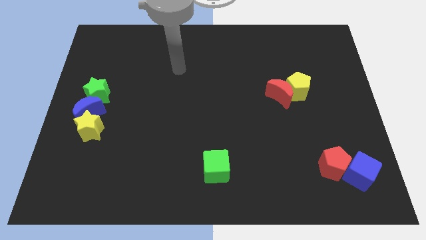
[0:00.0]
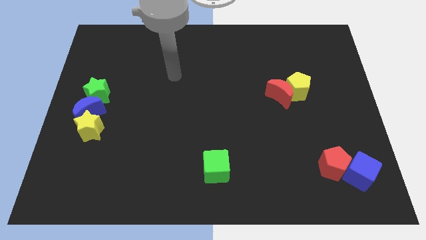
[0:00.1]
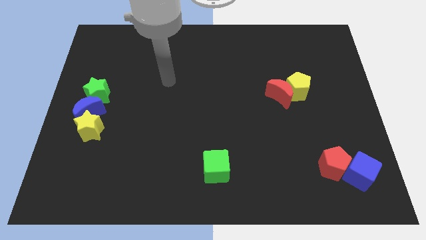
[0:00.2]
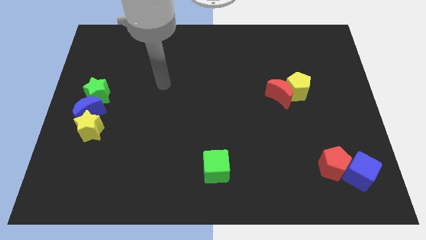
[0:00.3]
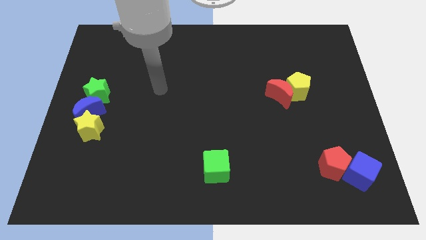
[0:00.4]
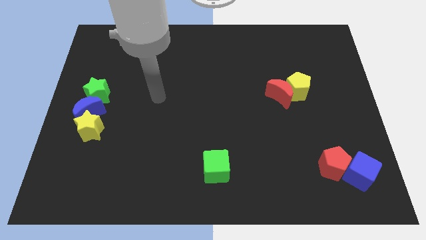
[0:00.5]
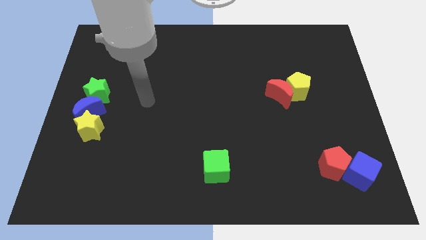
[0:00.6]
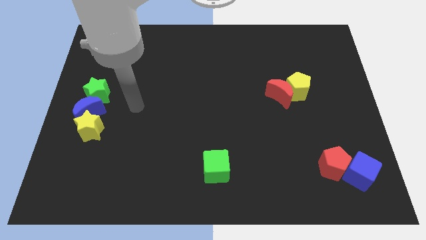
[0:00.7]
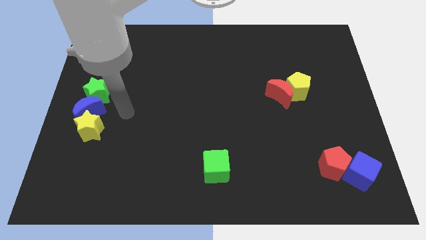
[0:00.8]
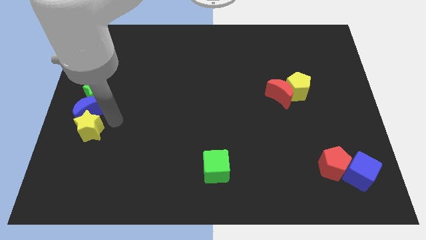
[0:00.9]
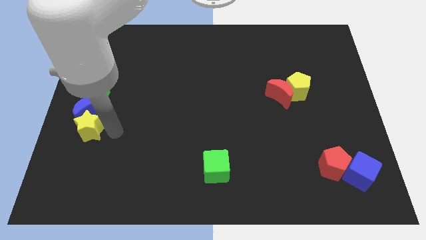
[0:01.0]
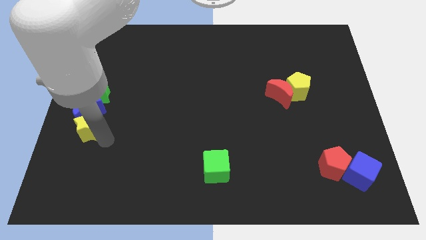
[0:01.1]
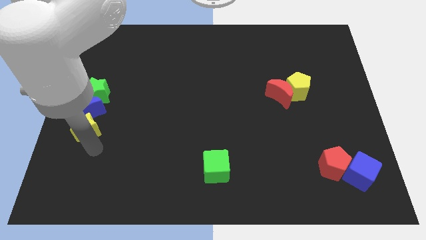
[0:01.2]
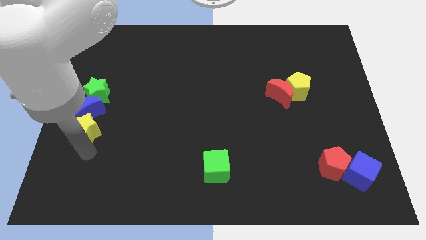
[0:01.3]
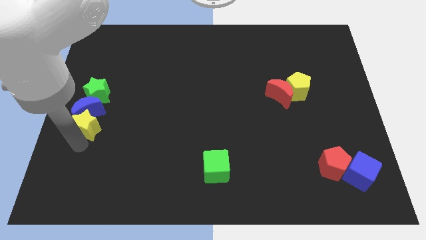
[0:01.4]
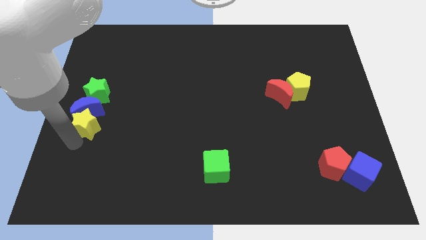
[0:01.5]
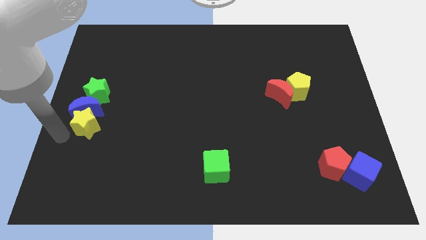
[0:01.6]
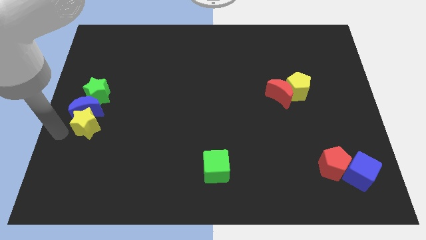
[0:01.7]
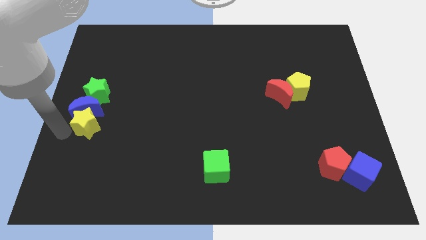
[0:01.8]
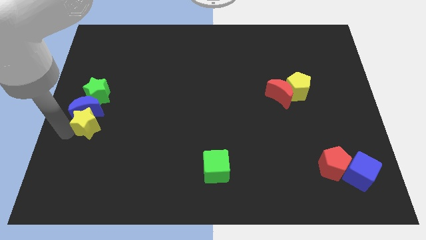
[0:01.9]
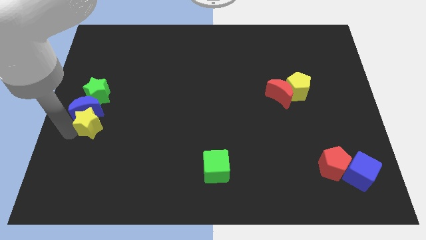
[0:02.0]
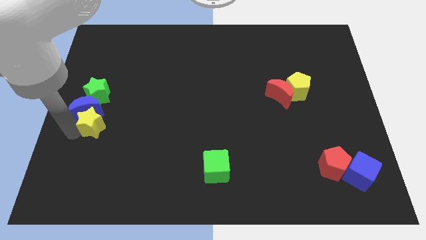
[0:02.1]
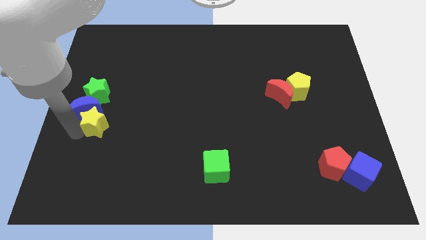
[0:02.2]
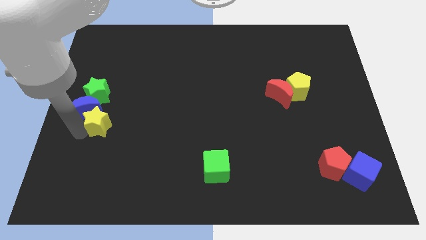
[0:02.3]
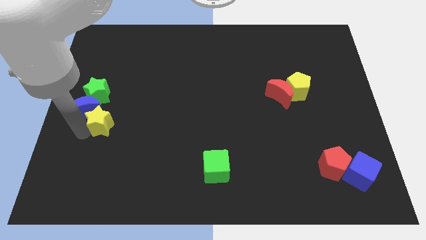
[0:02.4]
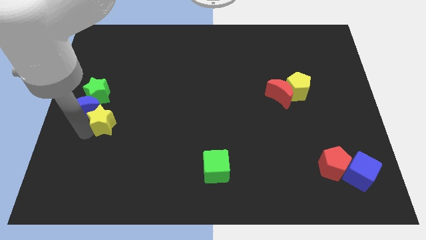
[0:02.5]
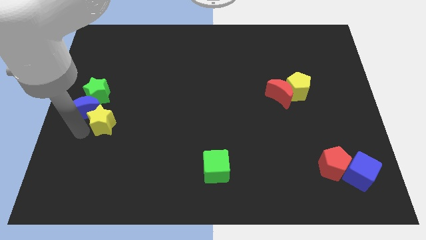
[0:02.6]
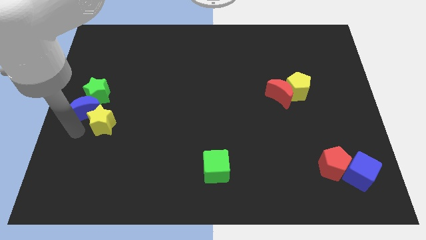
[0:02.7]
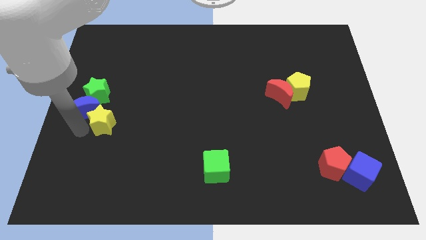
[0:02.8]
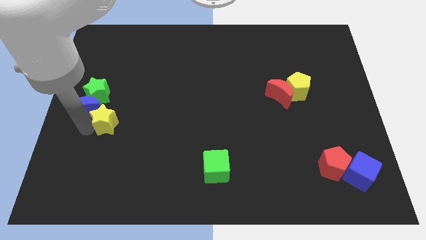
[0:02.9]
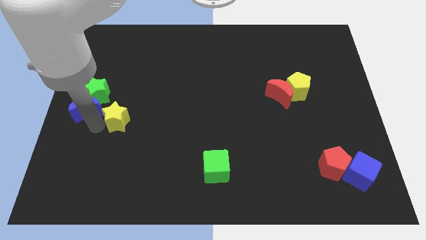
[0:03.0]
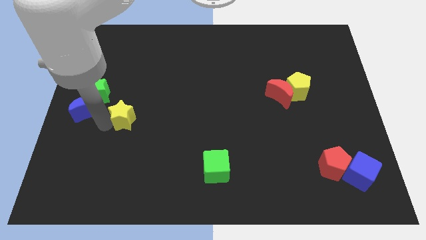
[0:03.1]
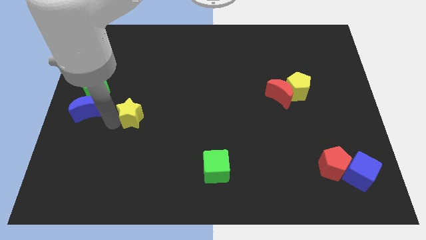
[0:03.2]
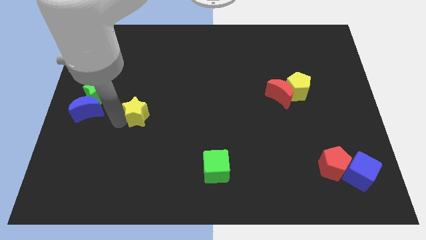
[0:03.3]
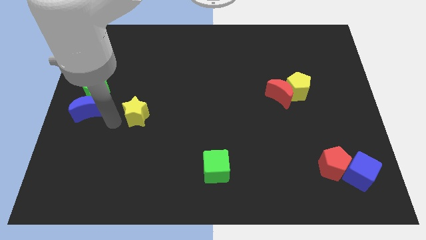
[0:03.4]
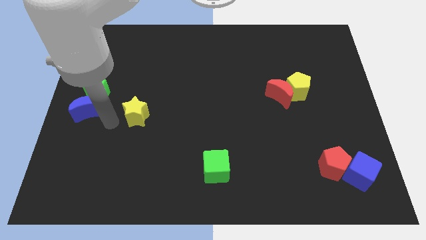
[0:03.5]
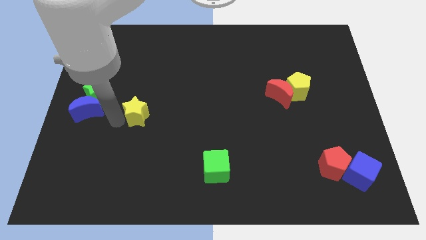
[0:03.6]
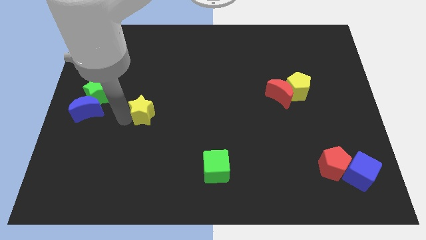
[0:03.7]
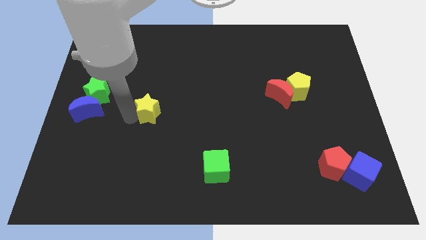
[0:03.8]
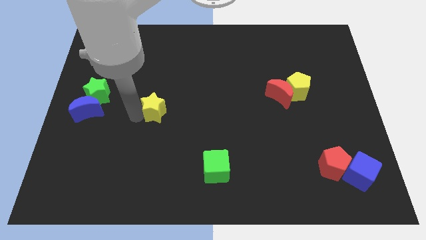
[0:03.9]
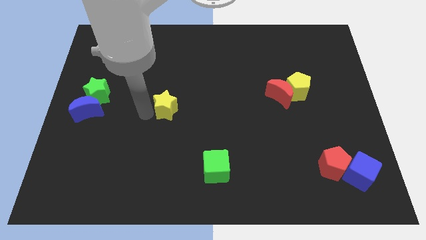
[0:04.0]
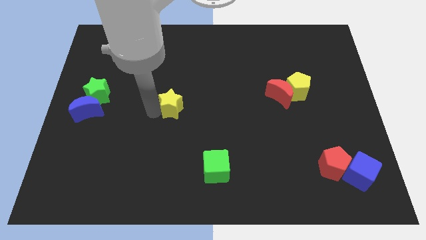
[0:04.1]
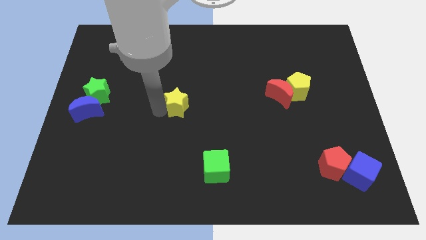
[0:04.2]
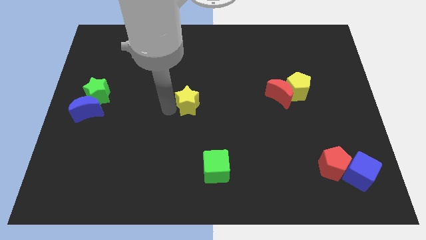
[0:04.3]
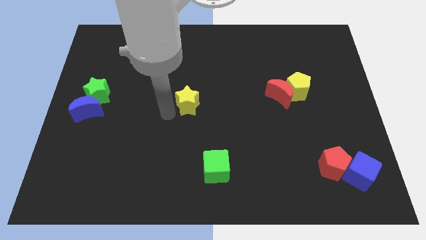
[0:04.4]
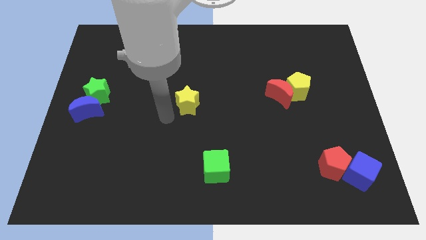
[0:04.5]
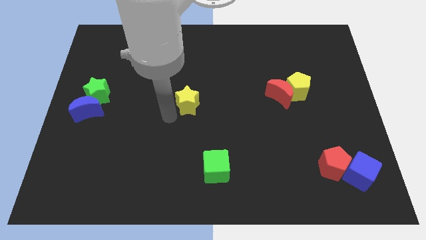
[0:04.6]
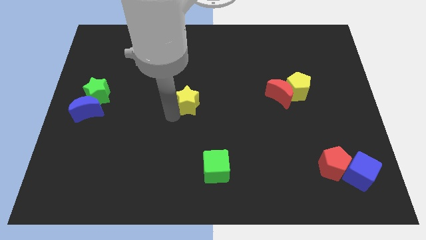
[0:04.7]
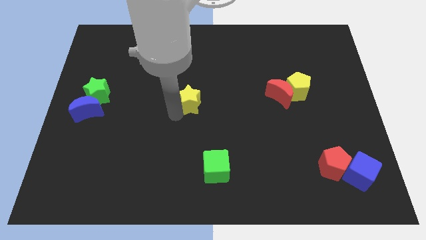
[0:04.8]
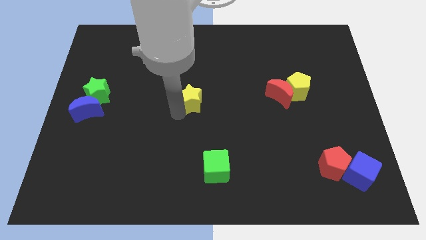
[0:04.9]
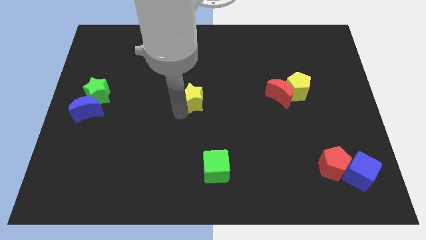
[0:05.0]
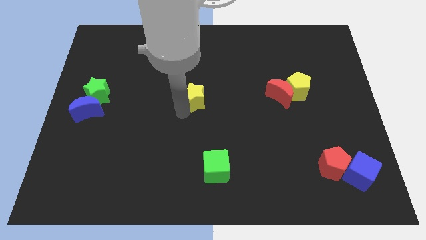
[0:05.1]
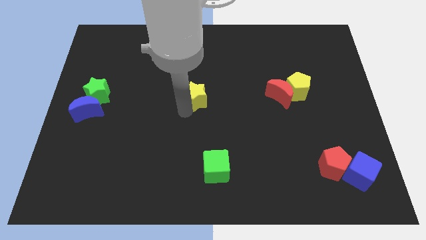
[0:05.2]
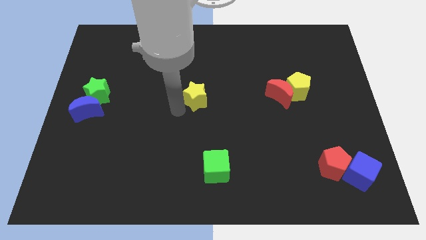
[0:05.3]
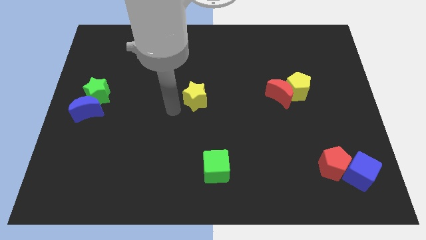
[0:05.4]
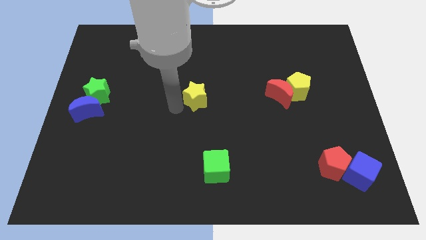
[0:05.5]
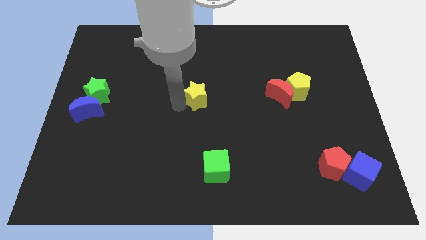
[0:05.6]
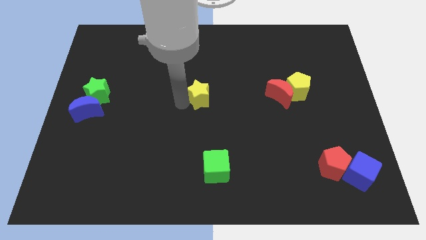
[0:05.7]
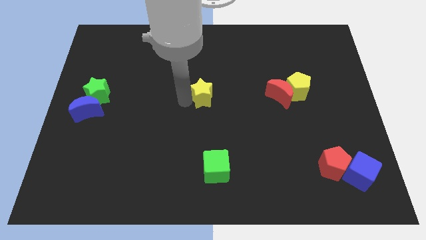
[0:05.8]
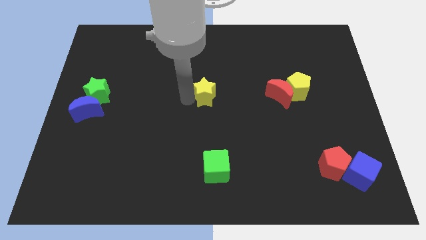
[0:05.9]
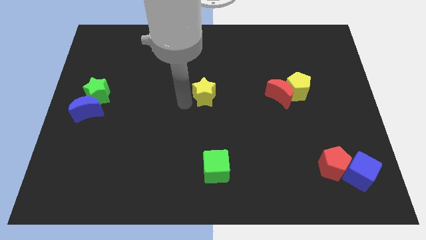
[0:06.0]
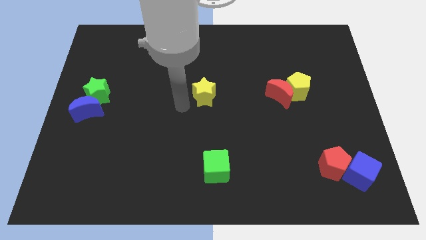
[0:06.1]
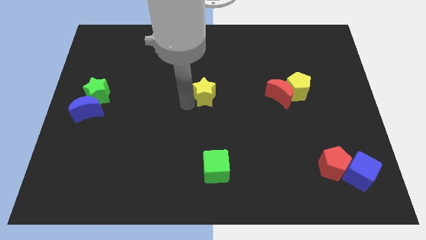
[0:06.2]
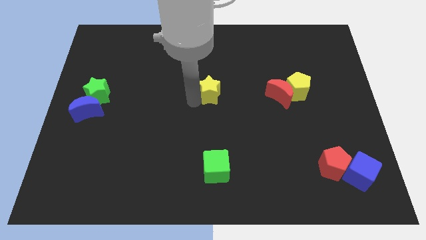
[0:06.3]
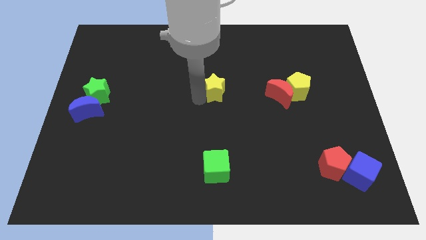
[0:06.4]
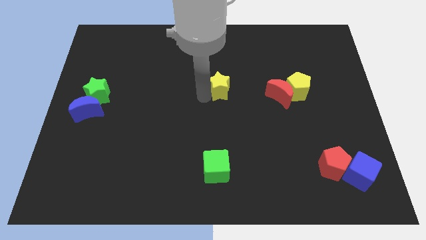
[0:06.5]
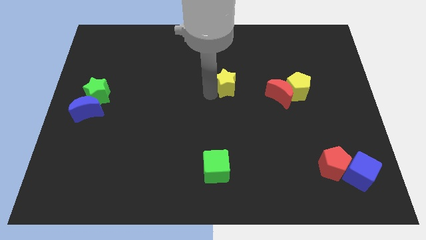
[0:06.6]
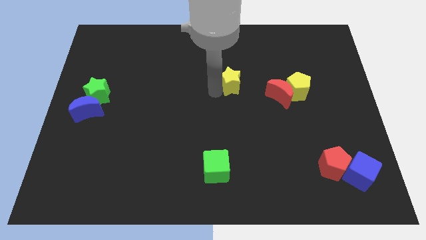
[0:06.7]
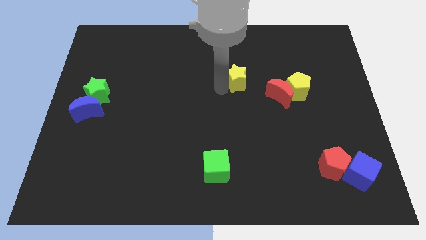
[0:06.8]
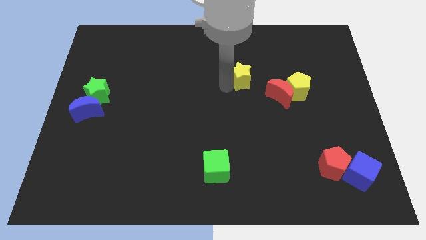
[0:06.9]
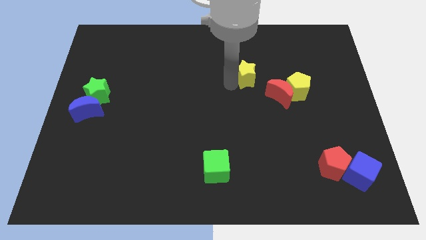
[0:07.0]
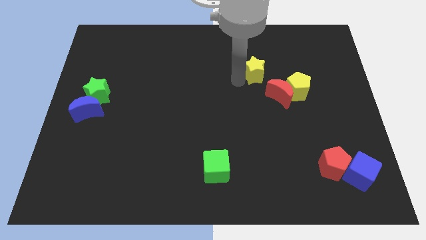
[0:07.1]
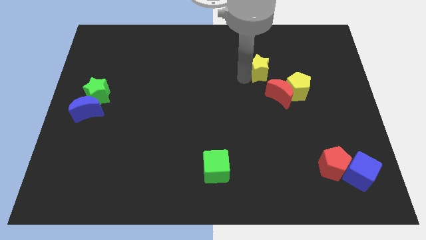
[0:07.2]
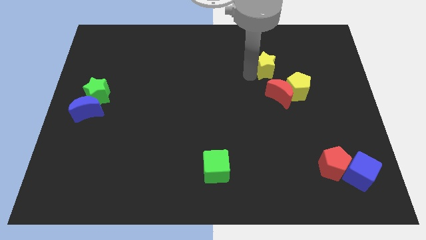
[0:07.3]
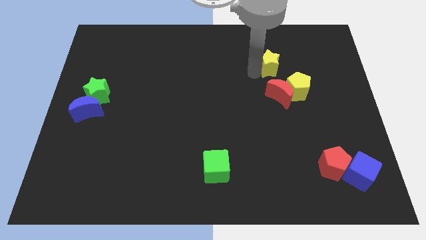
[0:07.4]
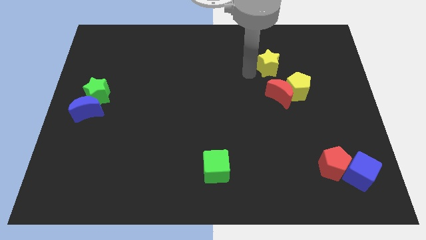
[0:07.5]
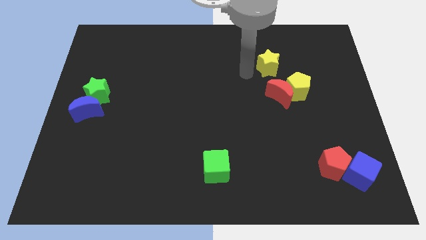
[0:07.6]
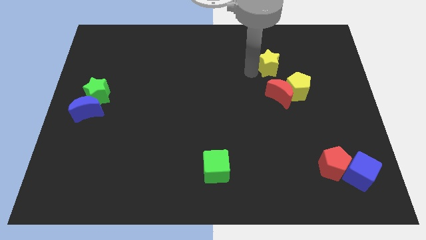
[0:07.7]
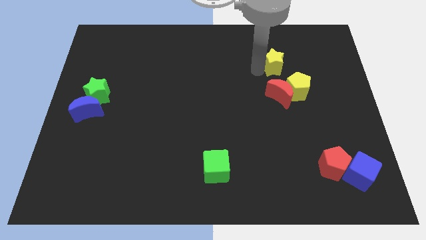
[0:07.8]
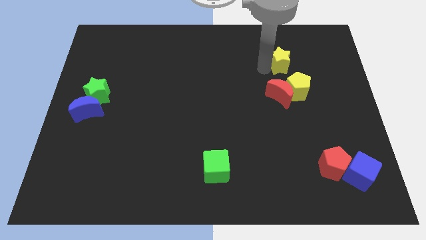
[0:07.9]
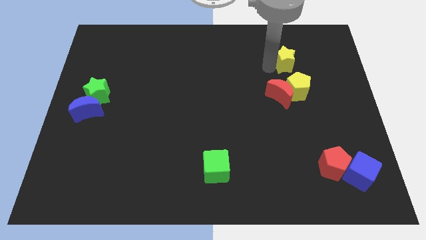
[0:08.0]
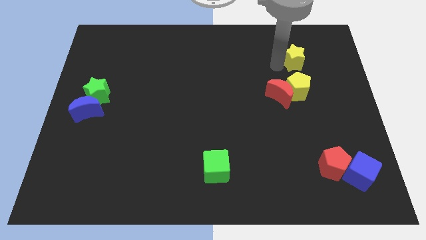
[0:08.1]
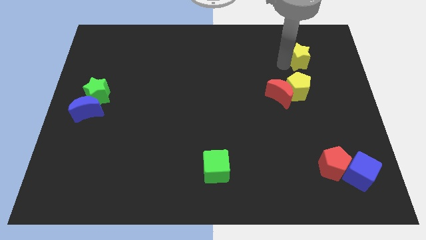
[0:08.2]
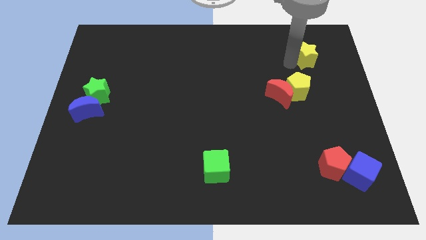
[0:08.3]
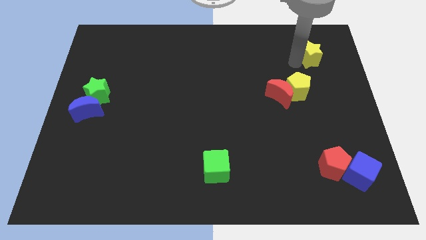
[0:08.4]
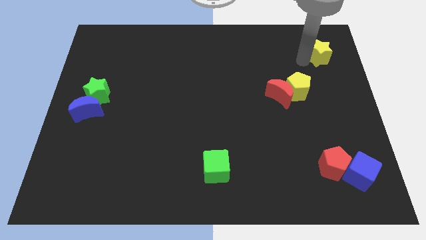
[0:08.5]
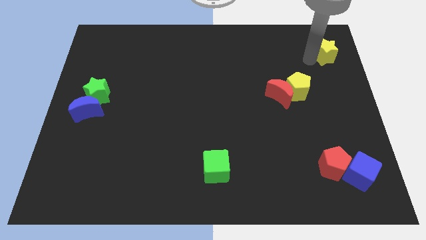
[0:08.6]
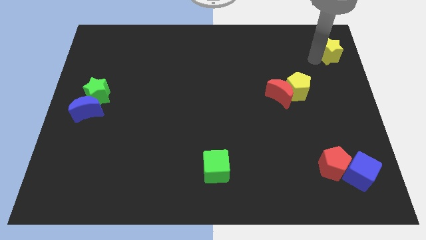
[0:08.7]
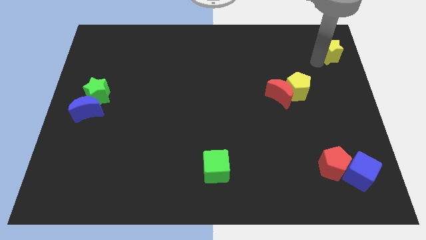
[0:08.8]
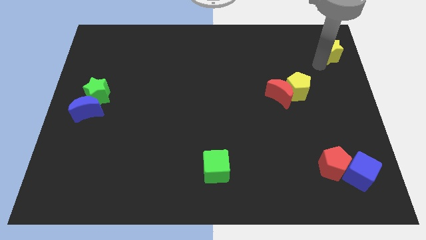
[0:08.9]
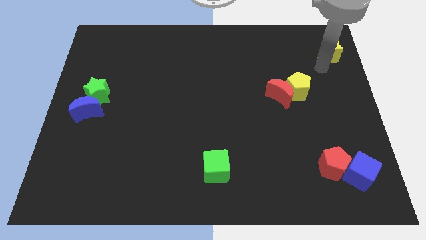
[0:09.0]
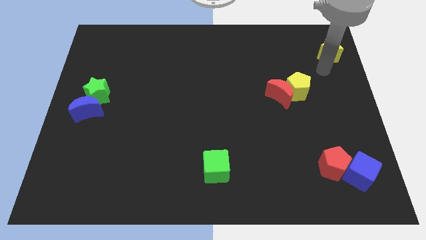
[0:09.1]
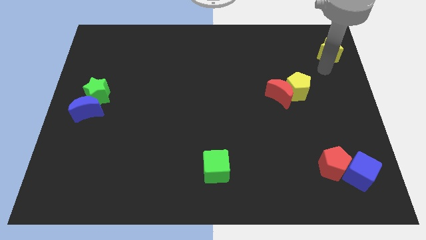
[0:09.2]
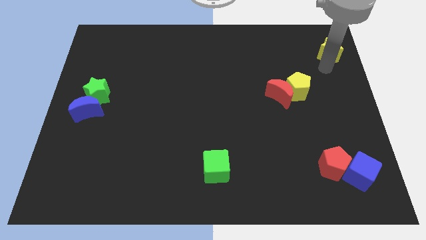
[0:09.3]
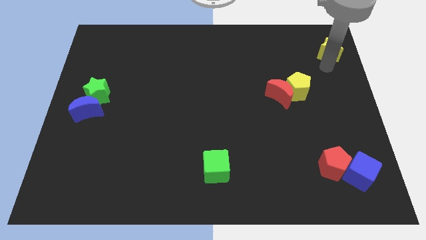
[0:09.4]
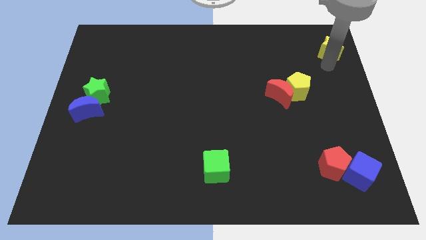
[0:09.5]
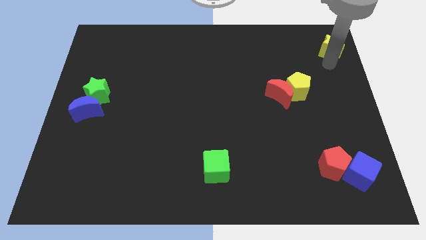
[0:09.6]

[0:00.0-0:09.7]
slide the yellow star to the top right of the board
